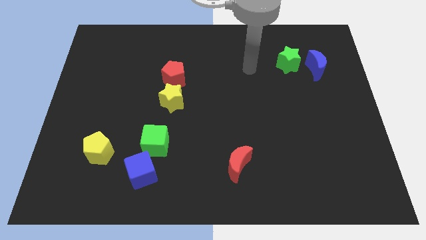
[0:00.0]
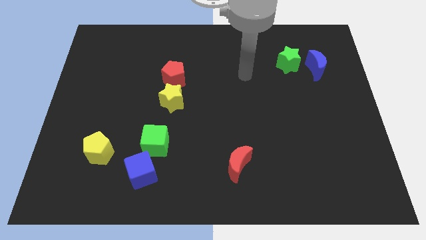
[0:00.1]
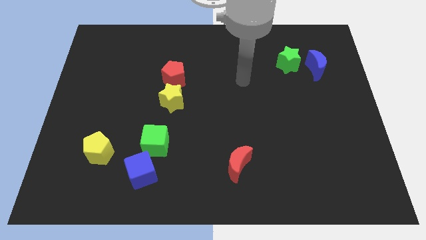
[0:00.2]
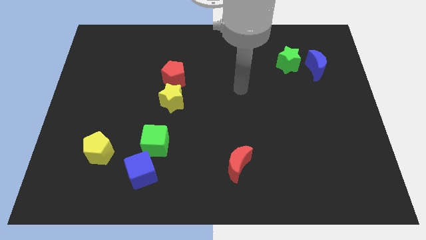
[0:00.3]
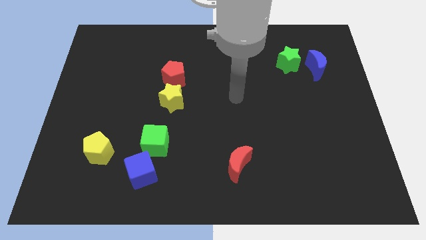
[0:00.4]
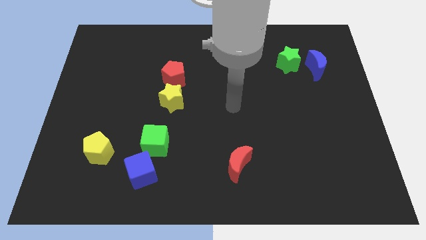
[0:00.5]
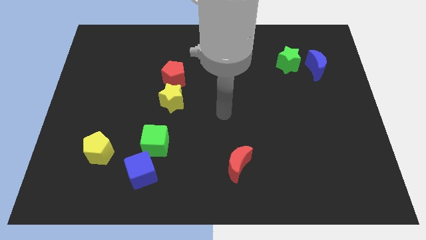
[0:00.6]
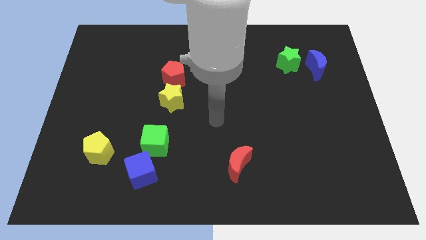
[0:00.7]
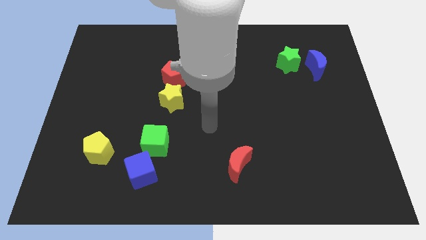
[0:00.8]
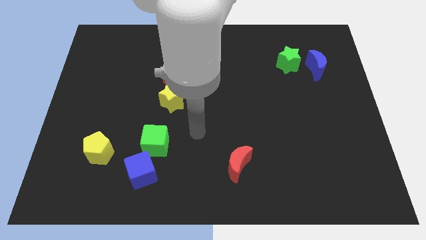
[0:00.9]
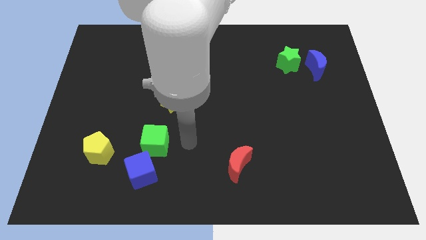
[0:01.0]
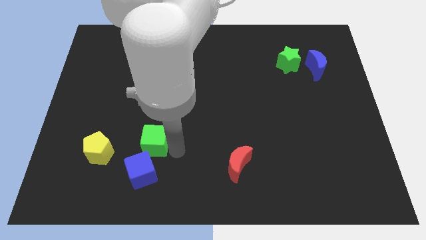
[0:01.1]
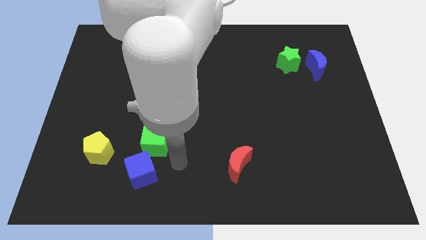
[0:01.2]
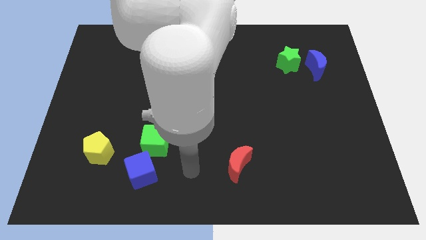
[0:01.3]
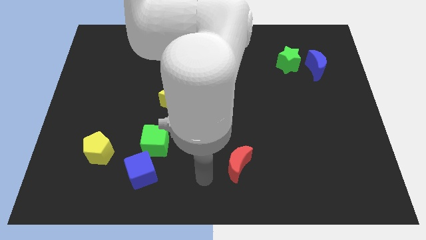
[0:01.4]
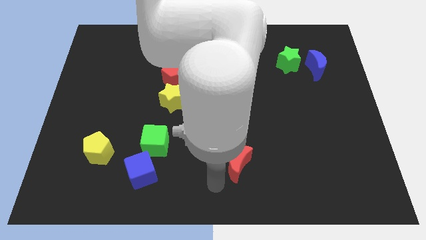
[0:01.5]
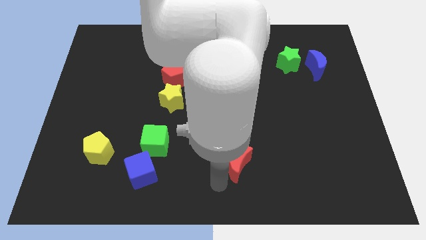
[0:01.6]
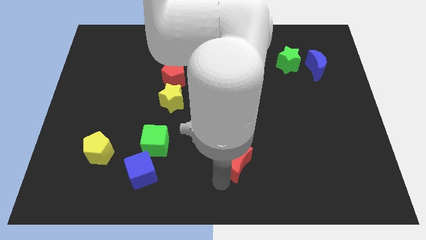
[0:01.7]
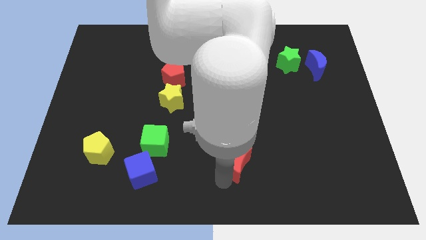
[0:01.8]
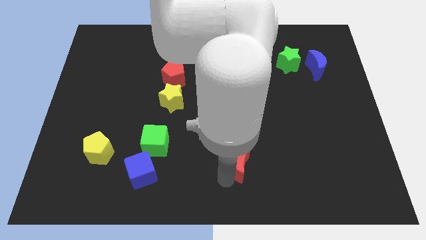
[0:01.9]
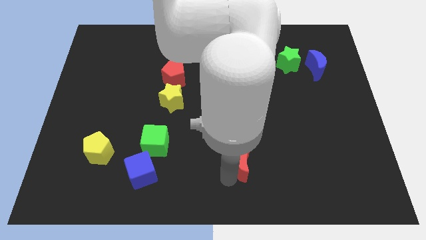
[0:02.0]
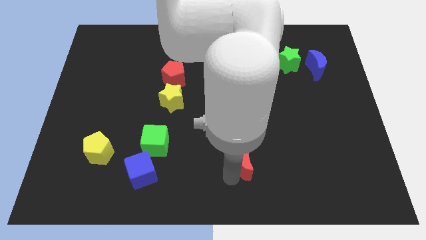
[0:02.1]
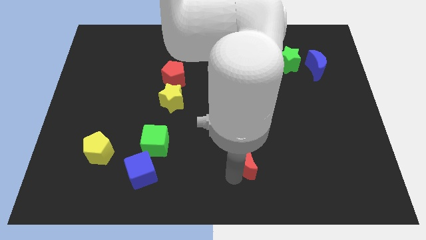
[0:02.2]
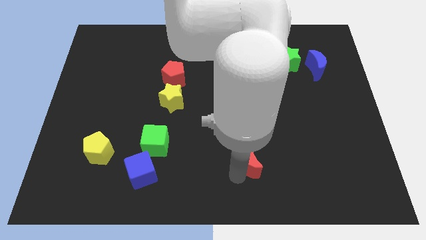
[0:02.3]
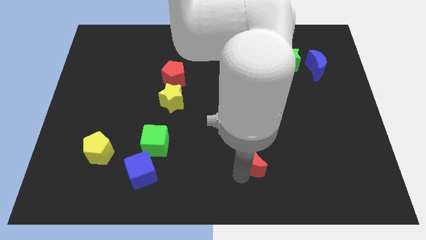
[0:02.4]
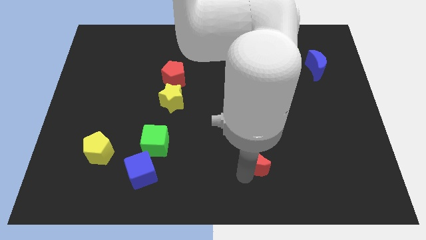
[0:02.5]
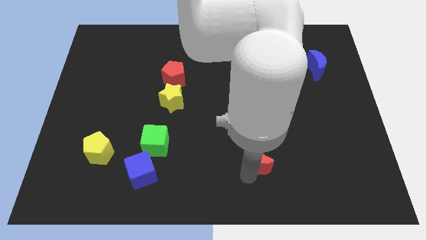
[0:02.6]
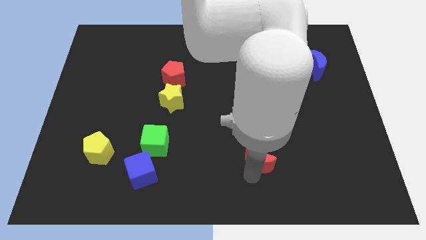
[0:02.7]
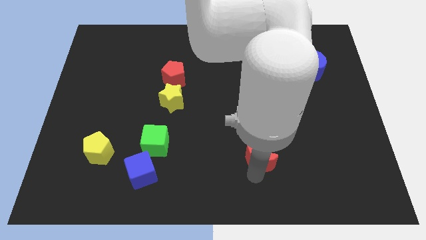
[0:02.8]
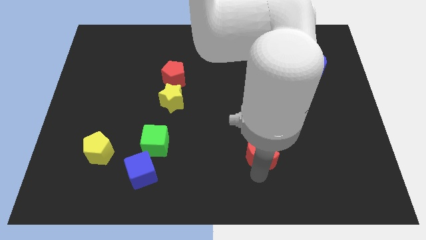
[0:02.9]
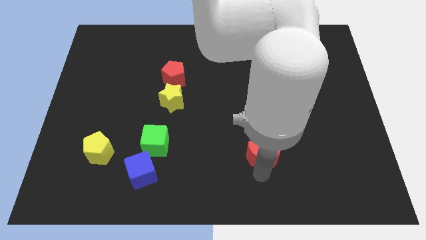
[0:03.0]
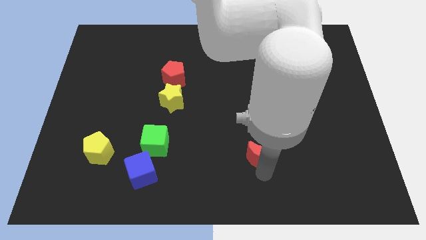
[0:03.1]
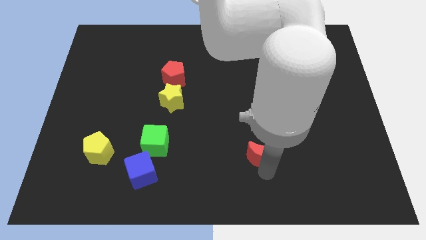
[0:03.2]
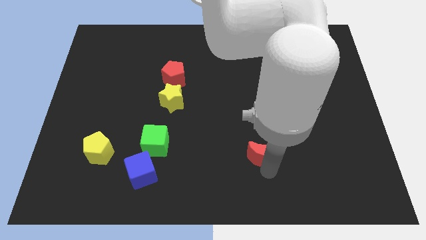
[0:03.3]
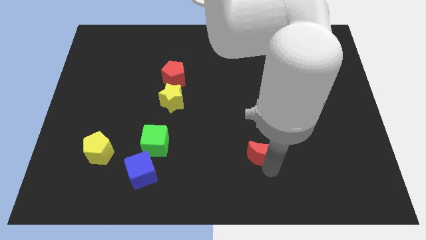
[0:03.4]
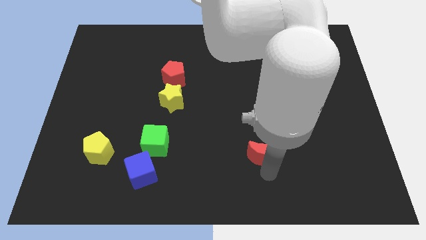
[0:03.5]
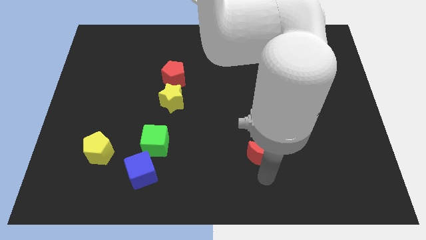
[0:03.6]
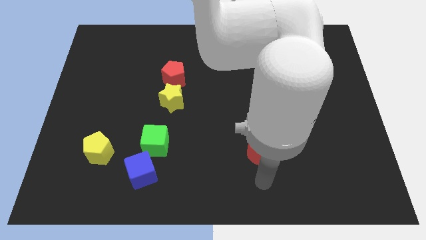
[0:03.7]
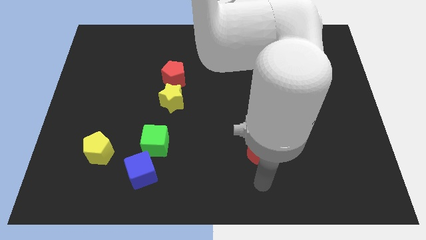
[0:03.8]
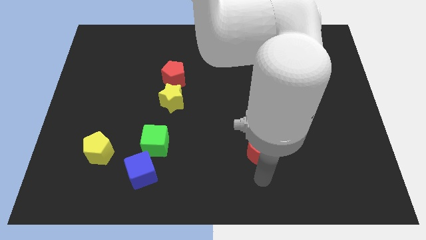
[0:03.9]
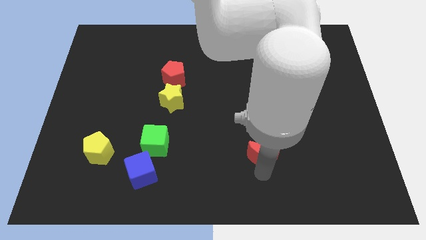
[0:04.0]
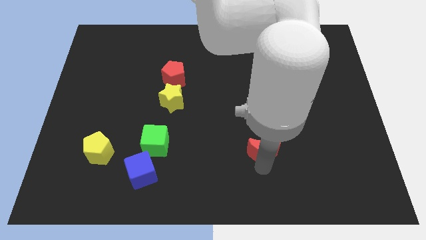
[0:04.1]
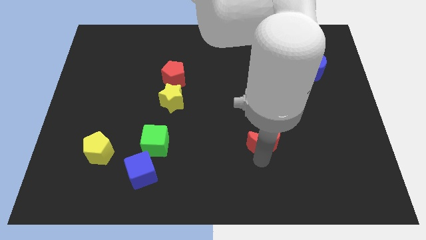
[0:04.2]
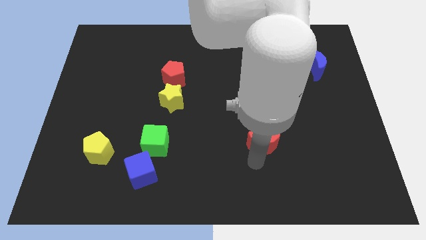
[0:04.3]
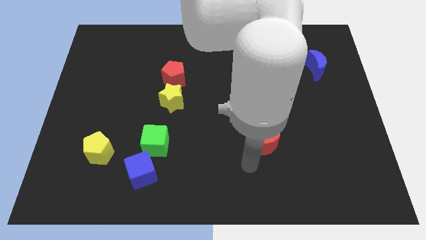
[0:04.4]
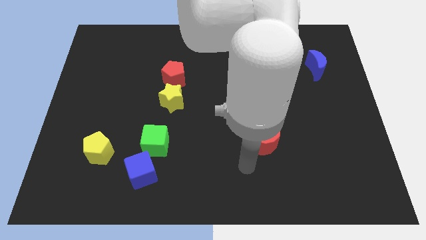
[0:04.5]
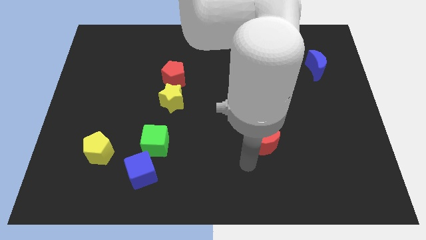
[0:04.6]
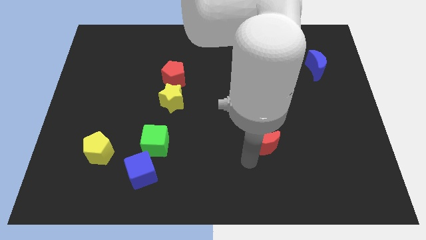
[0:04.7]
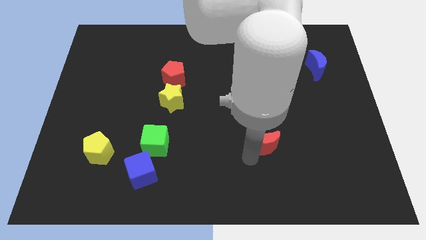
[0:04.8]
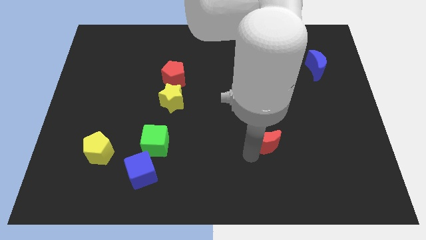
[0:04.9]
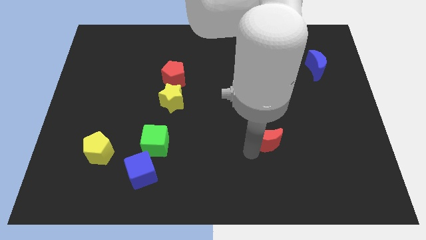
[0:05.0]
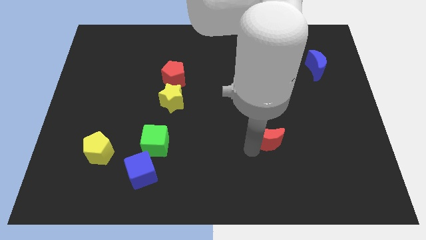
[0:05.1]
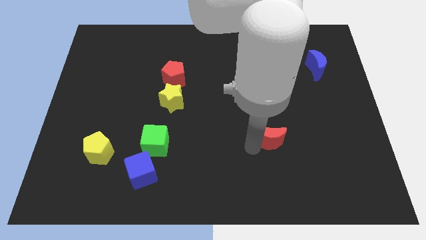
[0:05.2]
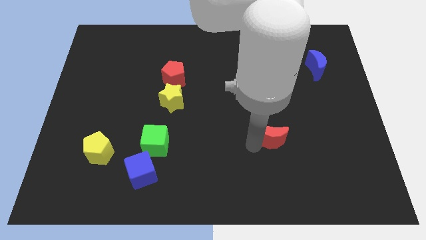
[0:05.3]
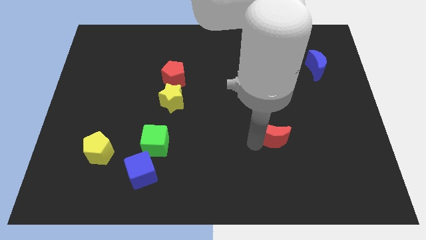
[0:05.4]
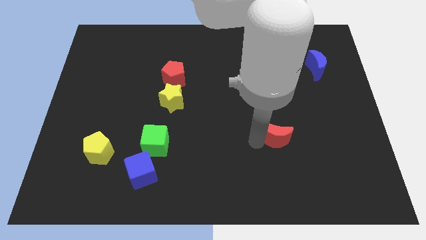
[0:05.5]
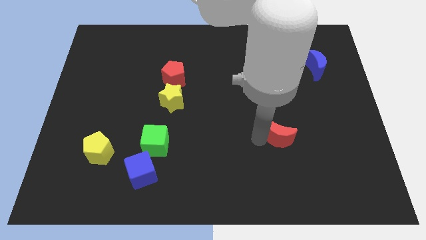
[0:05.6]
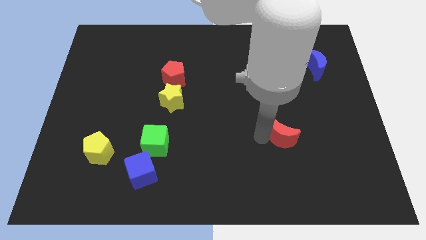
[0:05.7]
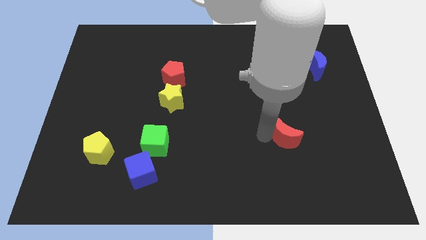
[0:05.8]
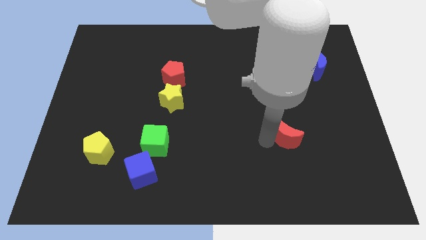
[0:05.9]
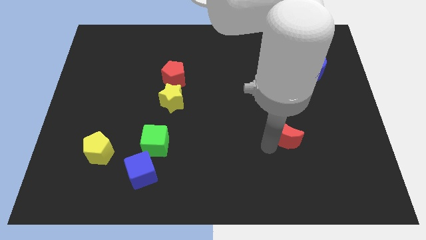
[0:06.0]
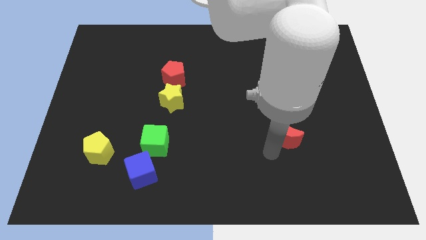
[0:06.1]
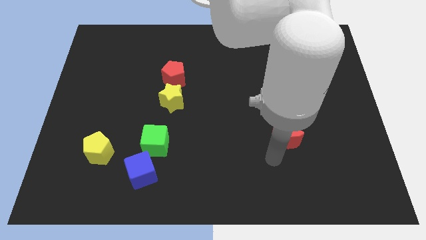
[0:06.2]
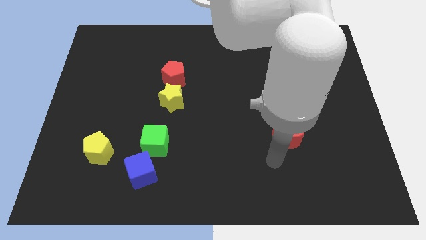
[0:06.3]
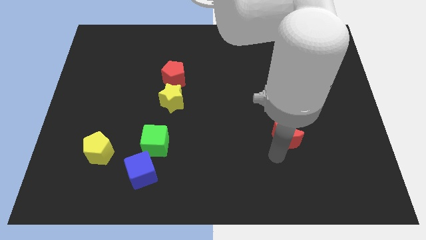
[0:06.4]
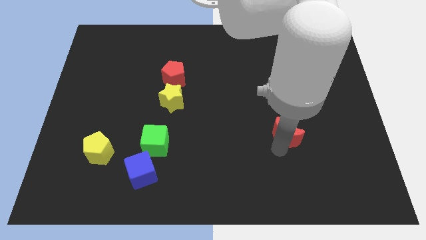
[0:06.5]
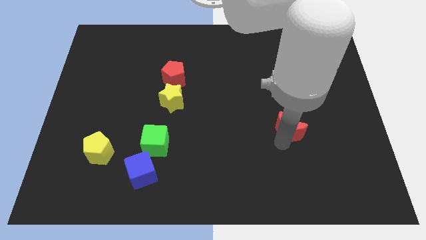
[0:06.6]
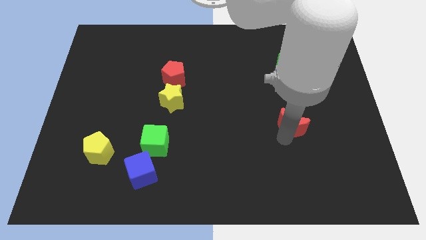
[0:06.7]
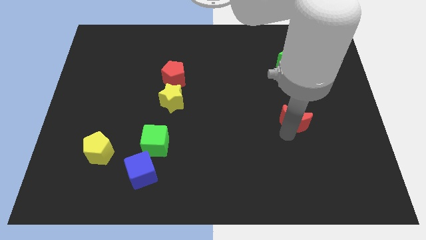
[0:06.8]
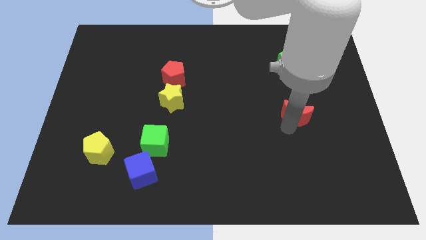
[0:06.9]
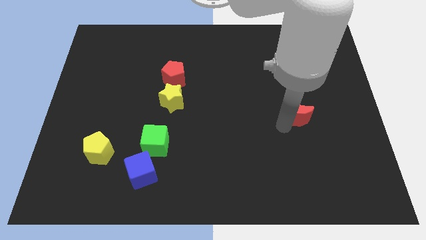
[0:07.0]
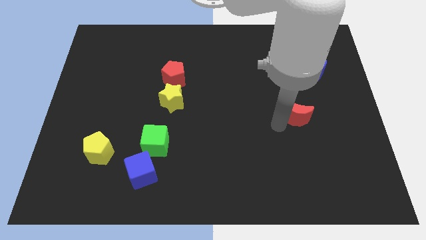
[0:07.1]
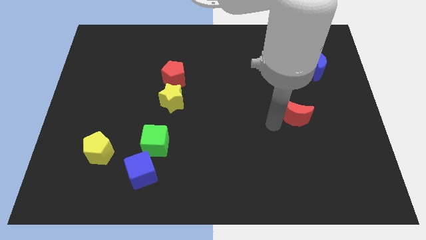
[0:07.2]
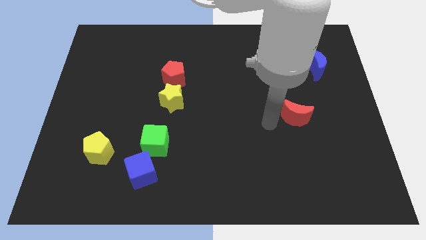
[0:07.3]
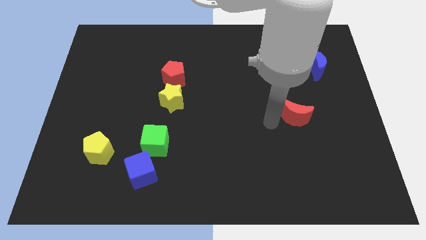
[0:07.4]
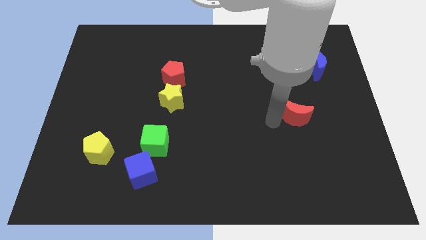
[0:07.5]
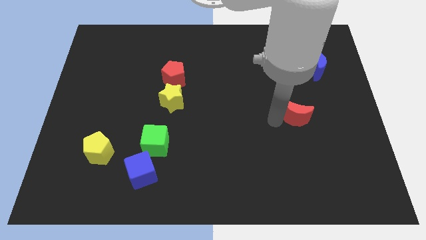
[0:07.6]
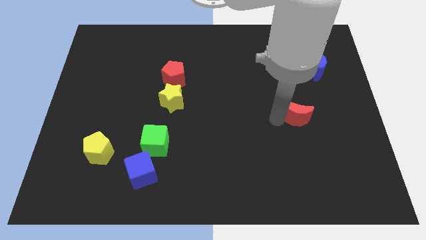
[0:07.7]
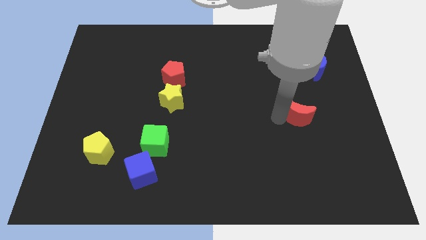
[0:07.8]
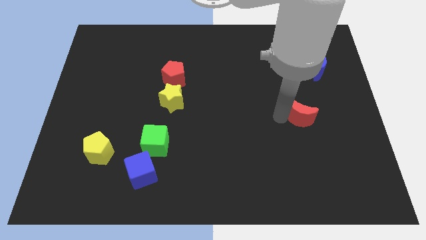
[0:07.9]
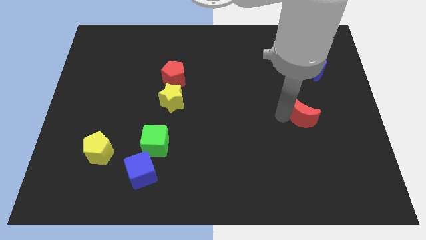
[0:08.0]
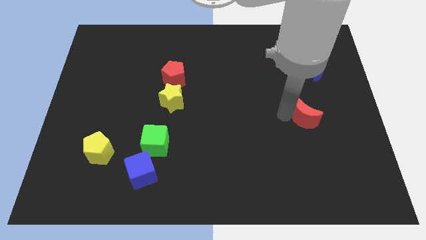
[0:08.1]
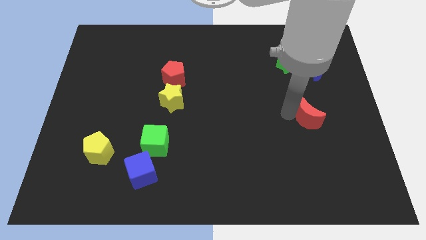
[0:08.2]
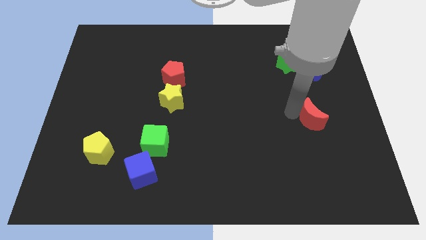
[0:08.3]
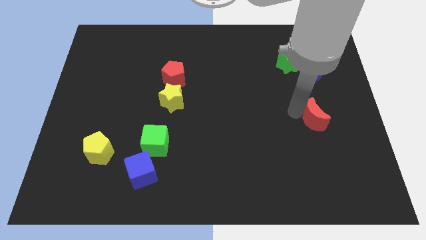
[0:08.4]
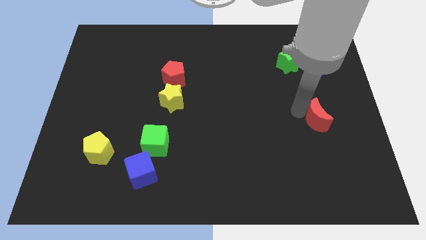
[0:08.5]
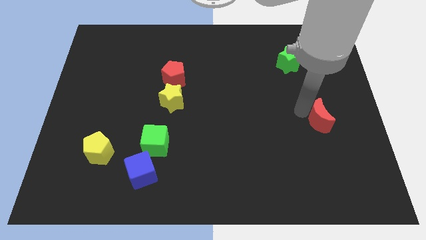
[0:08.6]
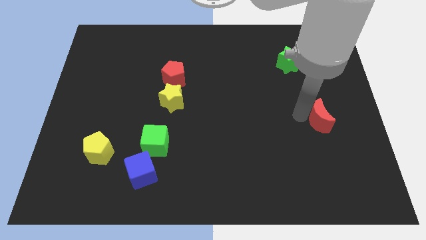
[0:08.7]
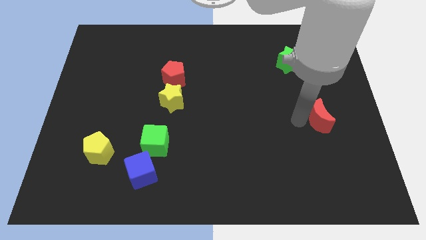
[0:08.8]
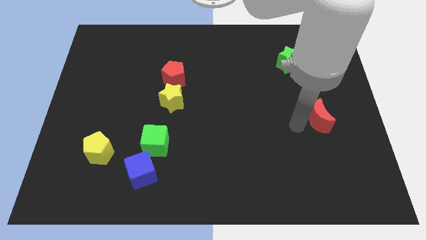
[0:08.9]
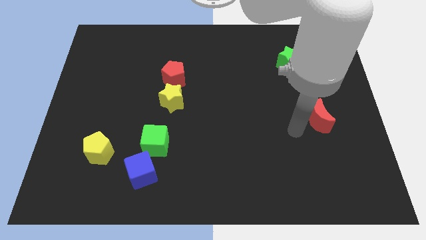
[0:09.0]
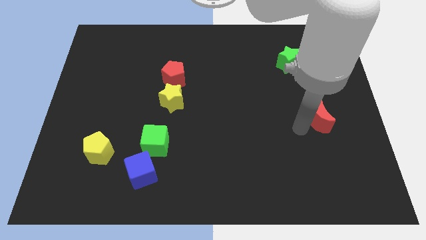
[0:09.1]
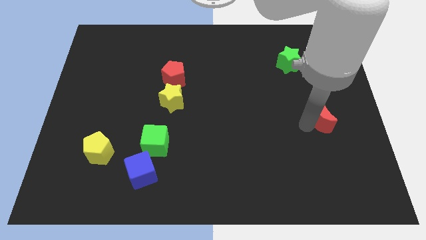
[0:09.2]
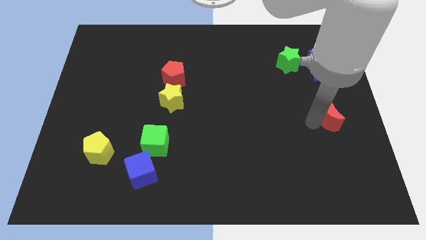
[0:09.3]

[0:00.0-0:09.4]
push the red moon to the right side
